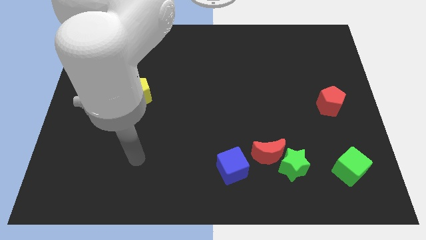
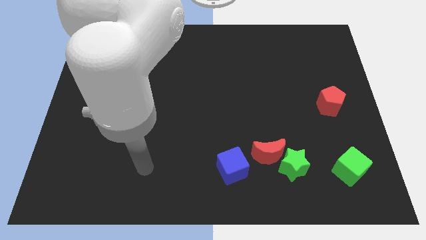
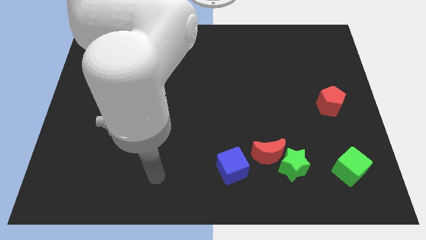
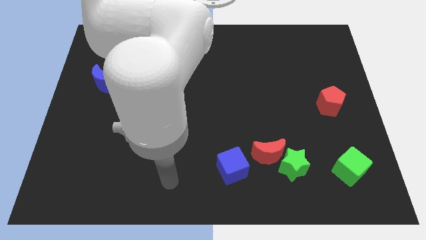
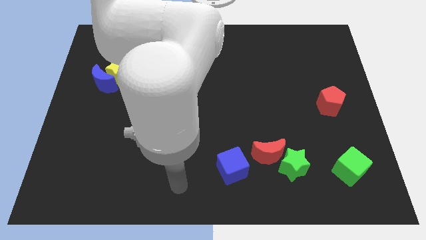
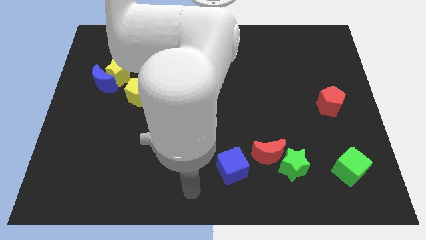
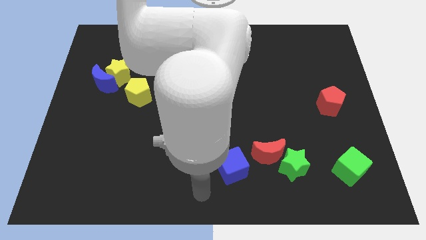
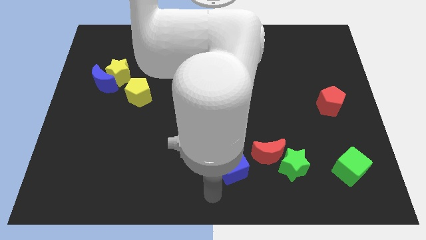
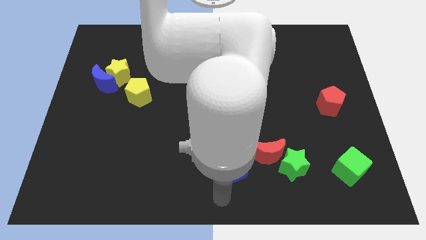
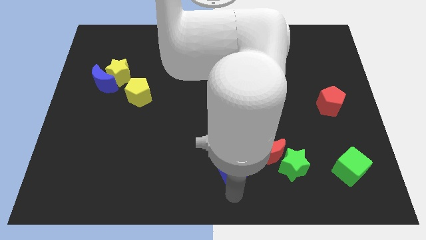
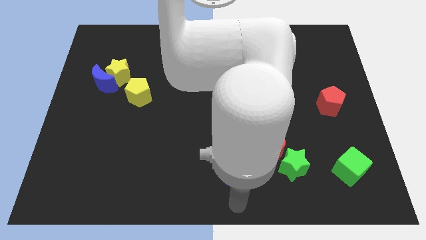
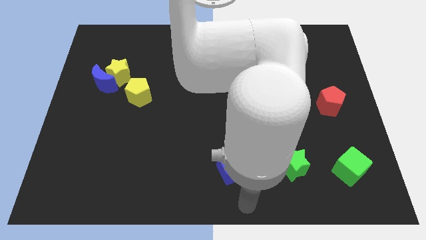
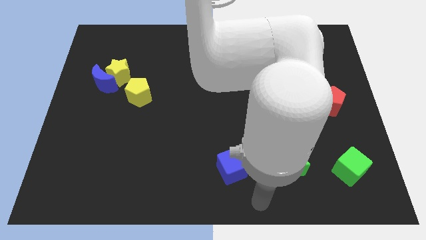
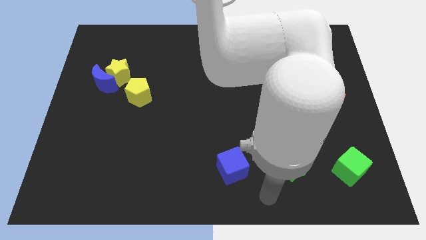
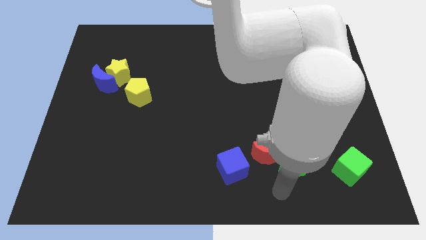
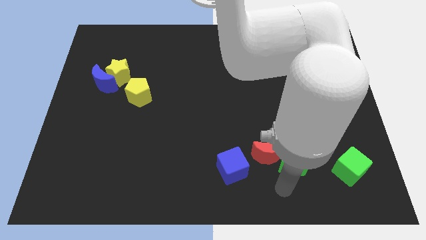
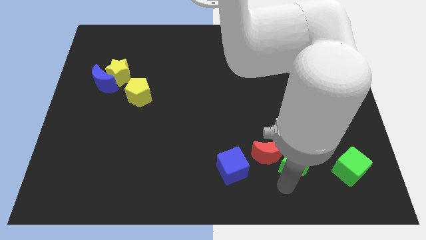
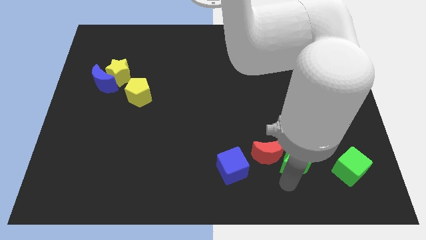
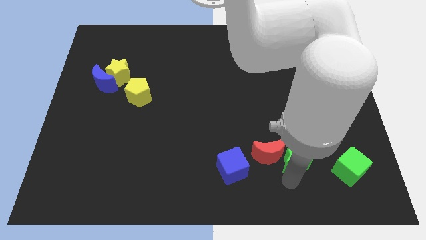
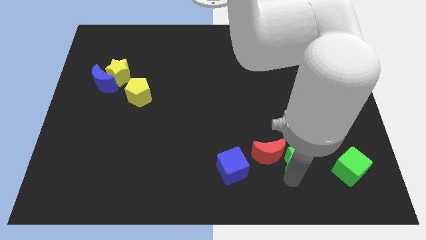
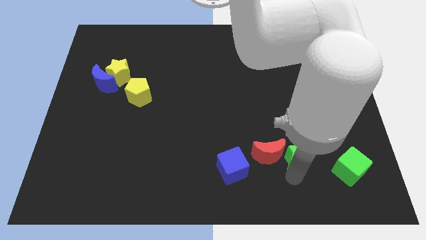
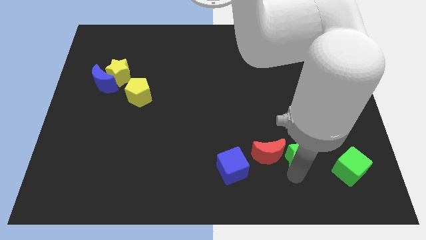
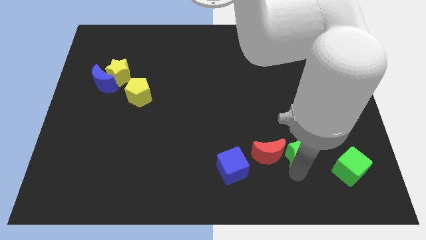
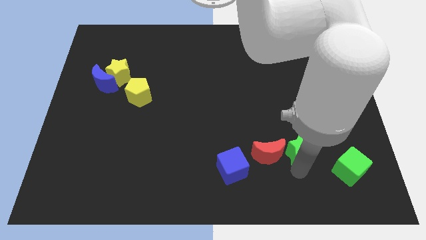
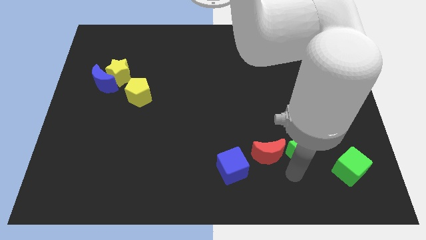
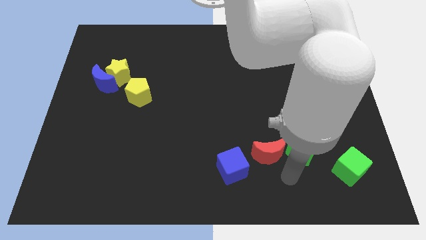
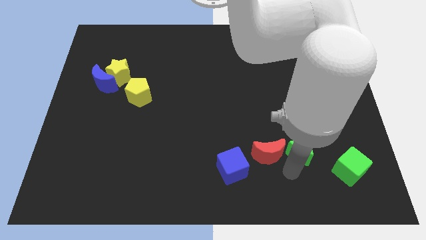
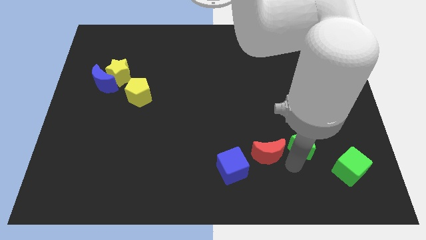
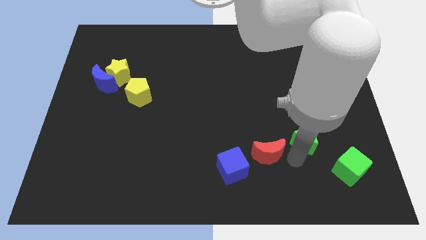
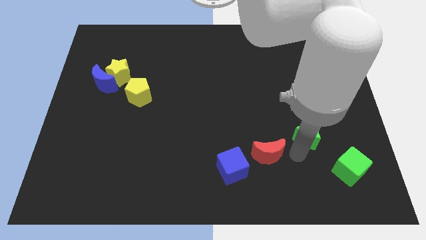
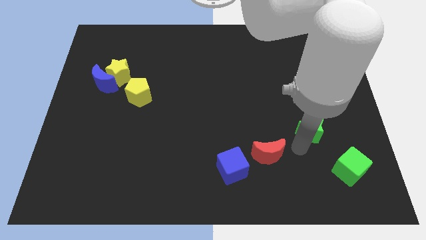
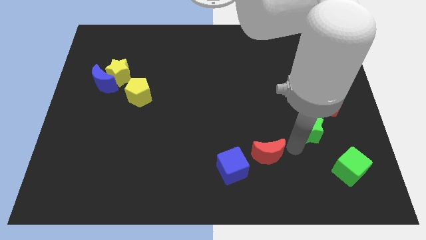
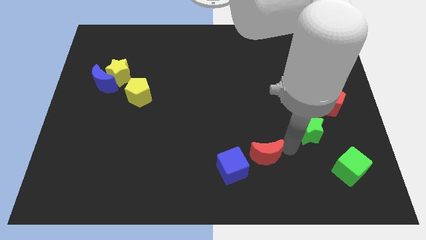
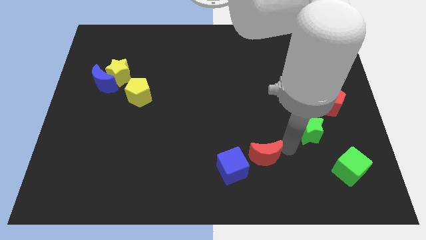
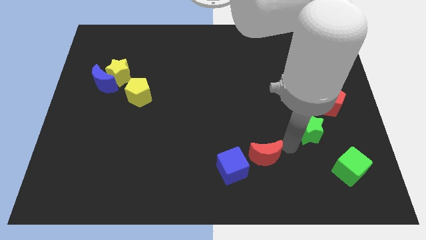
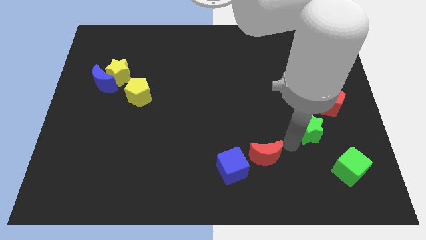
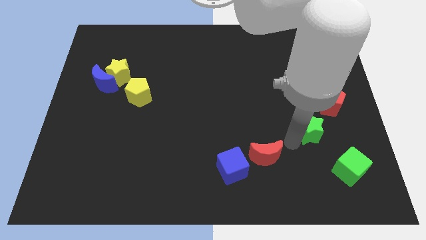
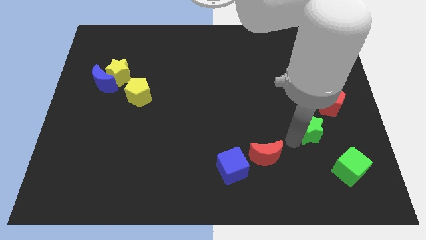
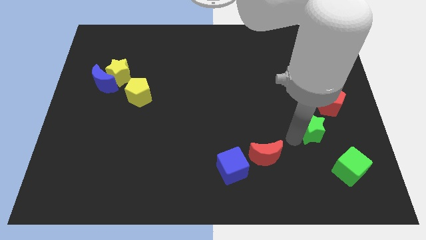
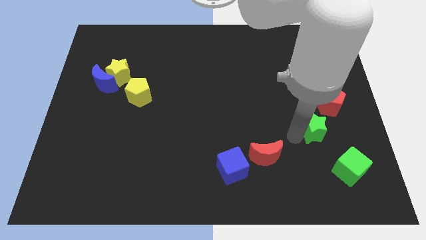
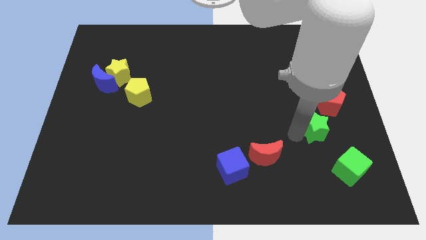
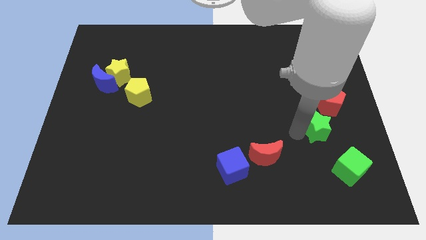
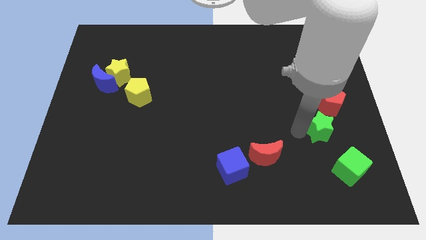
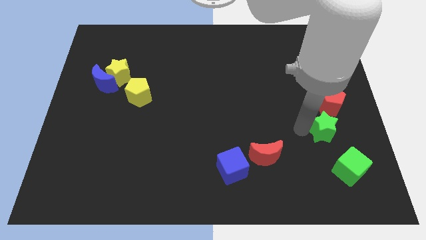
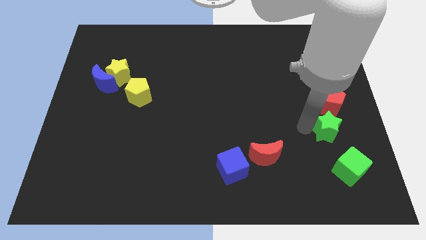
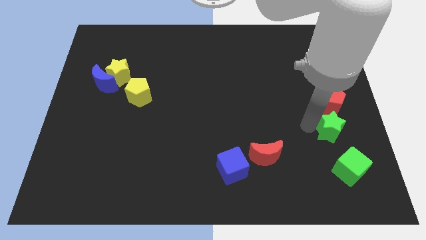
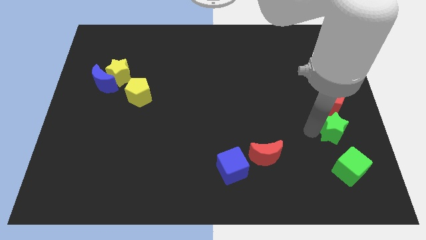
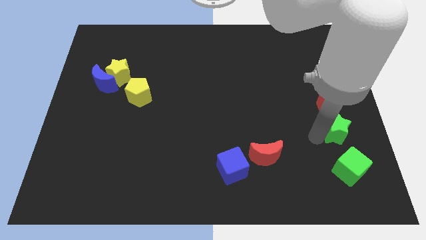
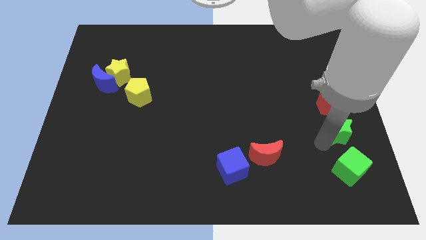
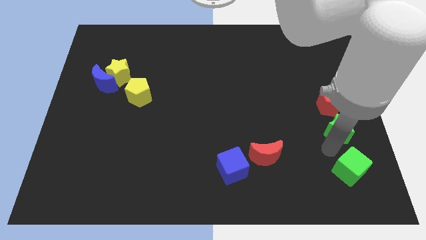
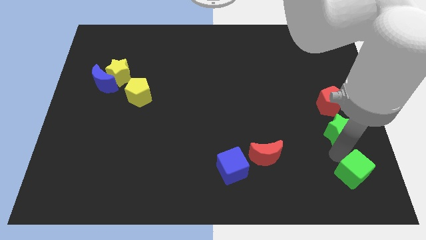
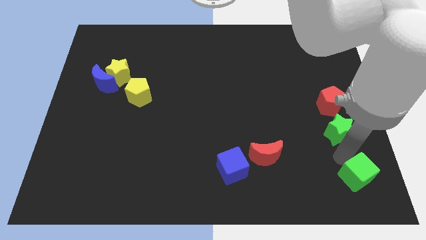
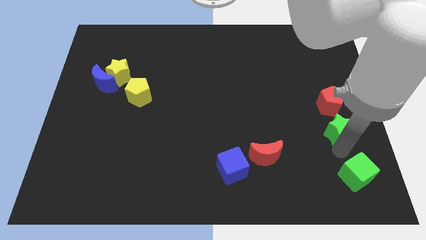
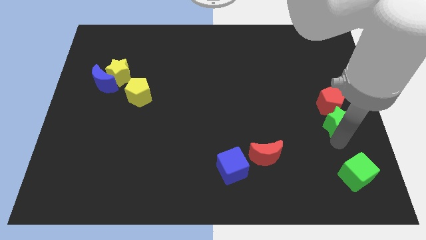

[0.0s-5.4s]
push the green star close to the red pentagon

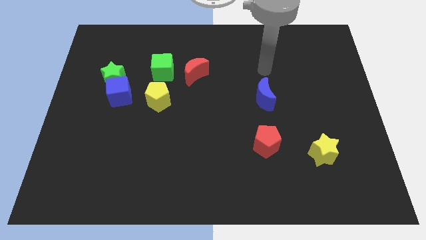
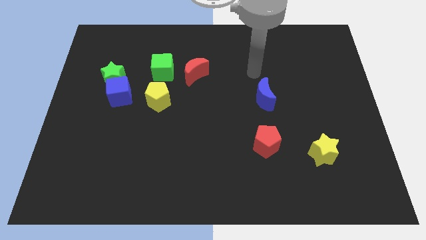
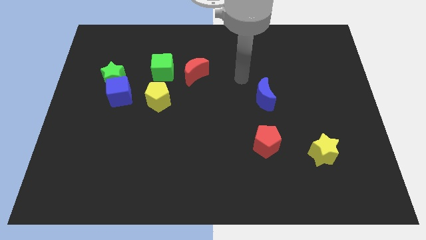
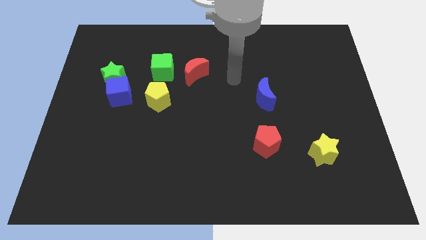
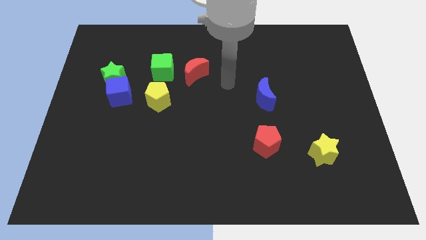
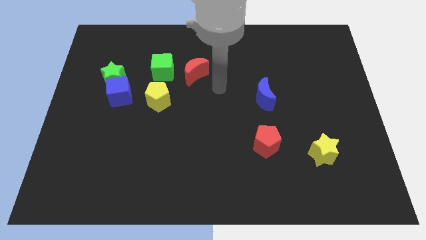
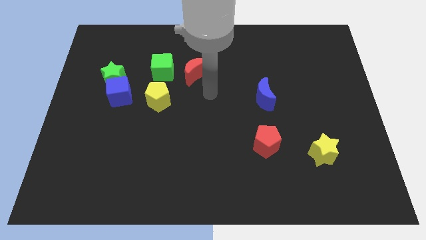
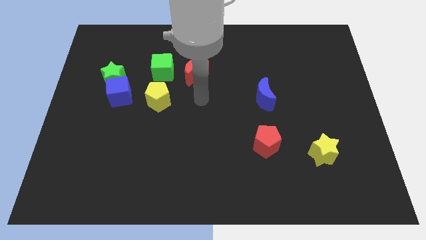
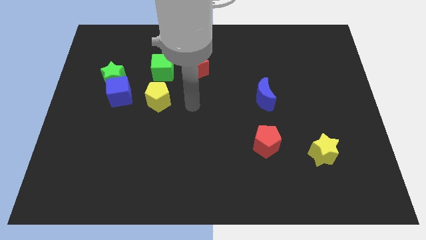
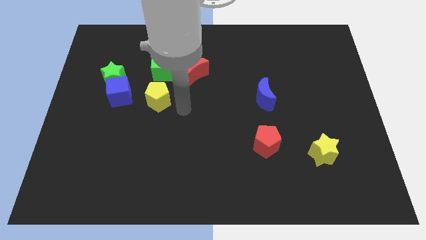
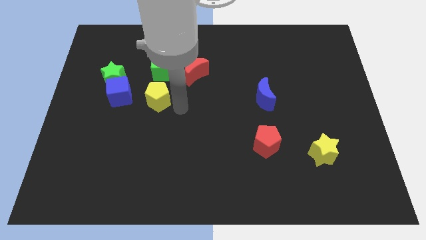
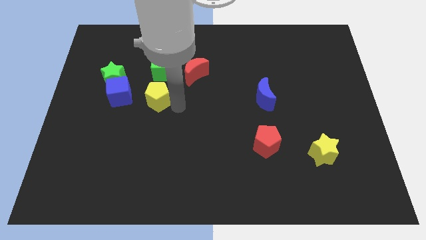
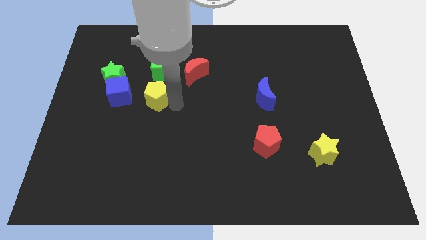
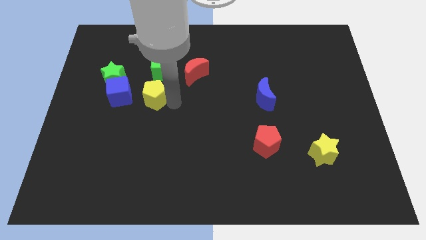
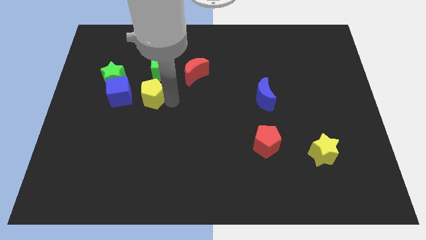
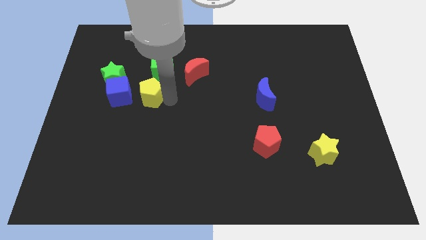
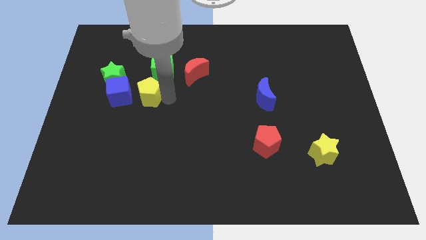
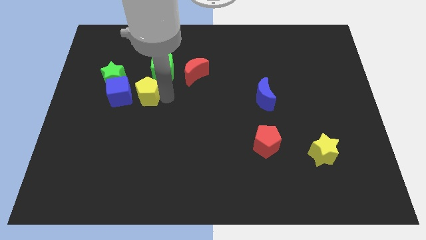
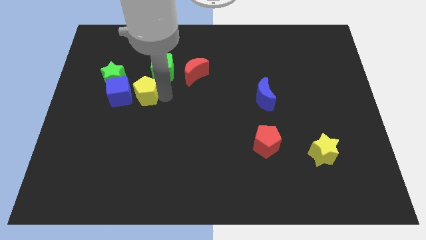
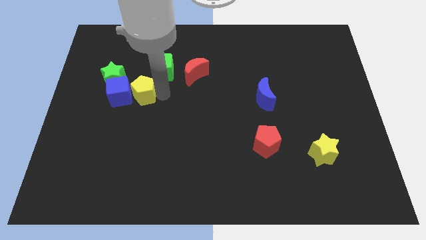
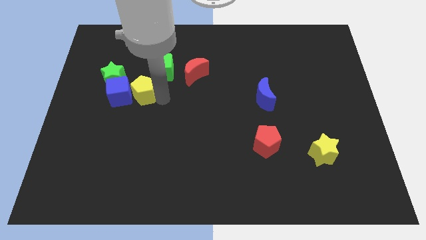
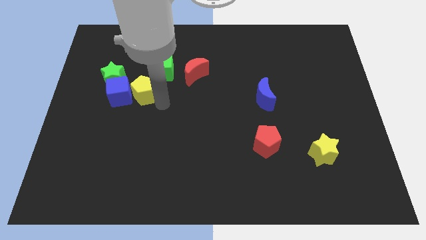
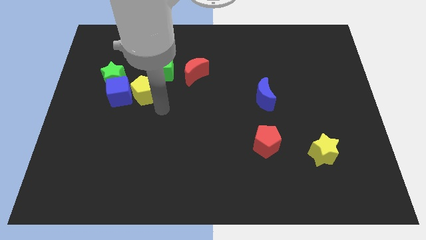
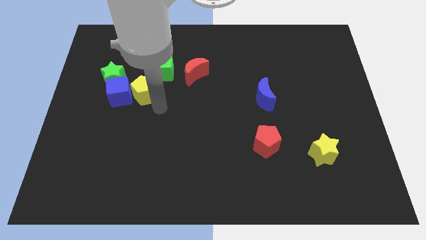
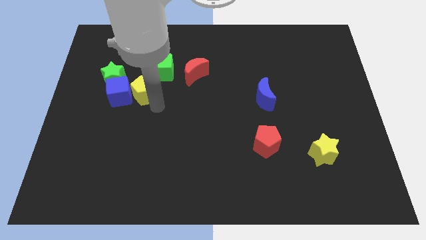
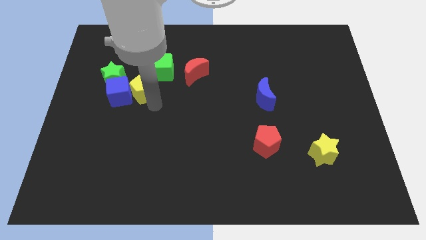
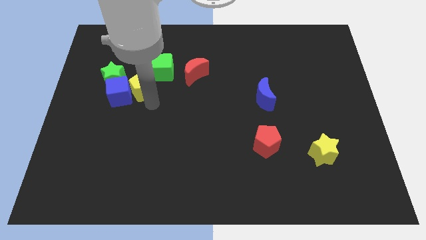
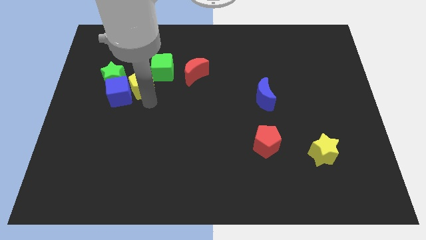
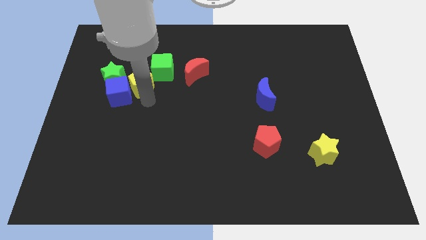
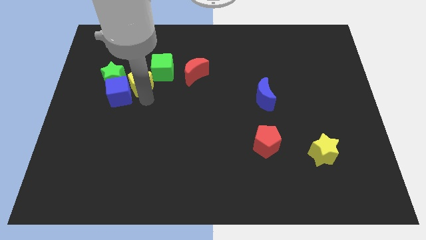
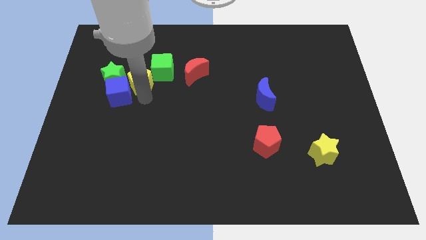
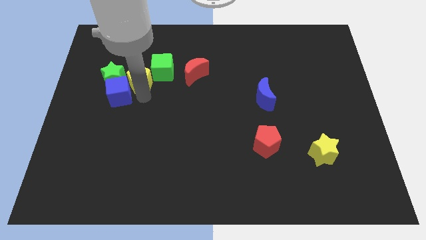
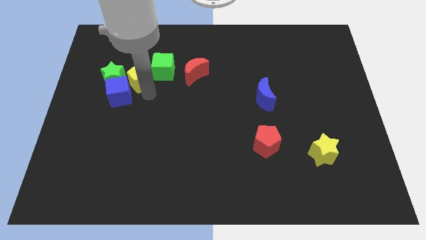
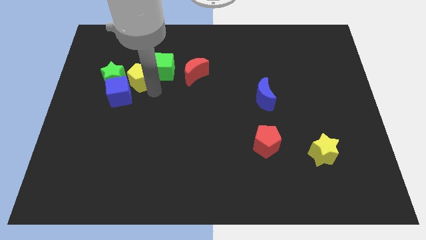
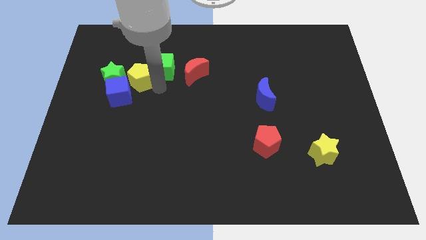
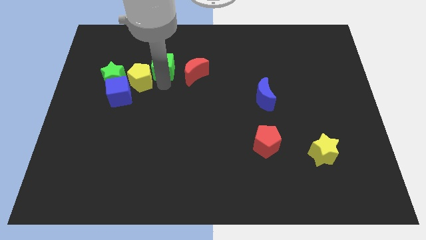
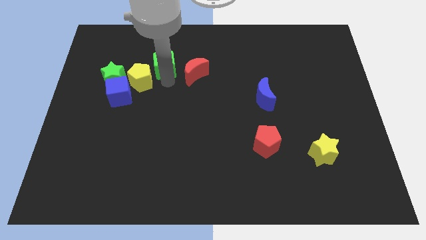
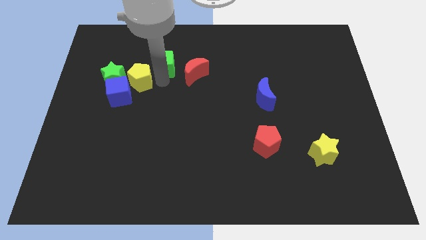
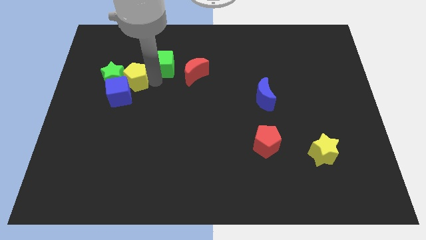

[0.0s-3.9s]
move the yellow pentagon next to the green star
